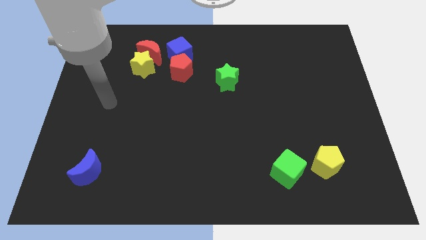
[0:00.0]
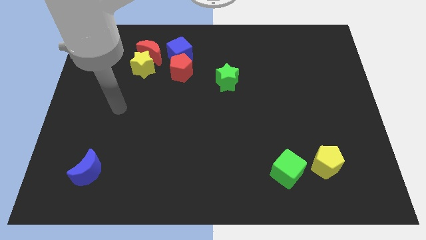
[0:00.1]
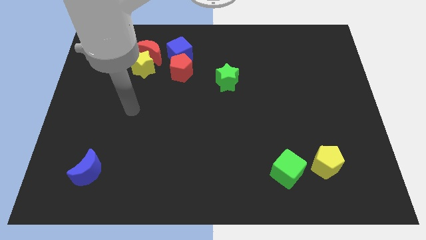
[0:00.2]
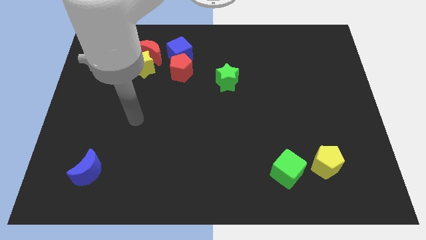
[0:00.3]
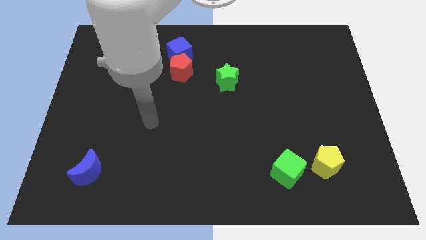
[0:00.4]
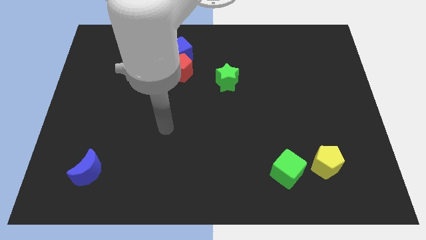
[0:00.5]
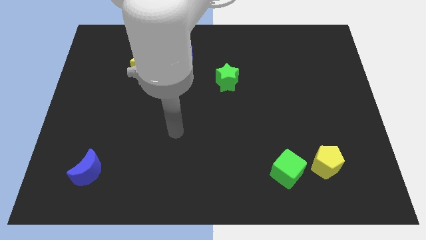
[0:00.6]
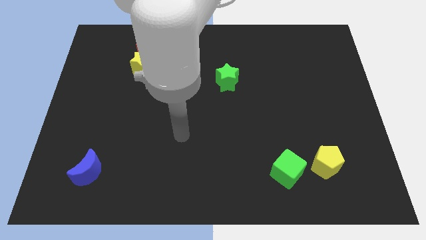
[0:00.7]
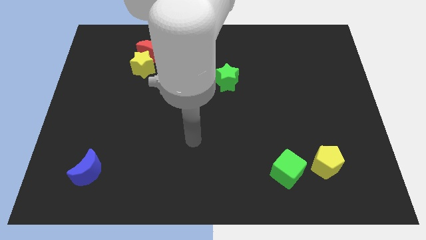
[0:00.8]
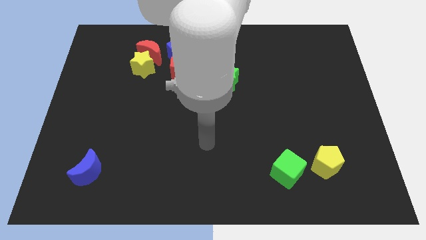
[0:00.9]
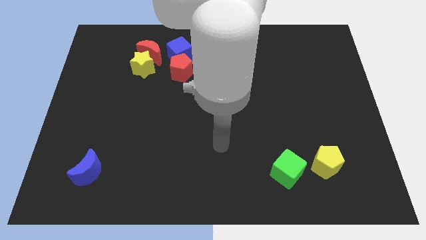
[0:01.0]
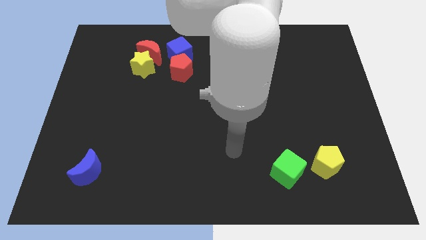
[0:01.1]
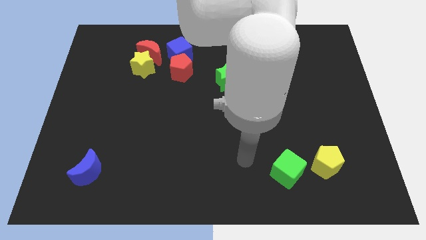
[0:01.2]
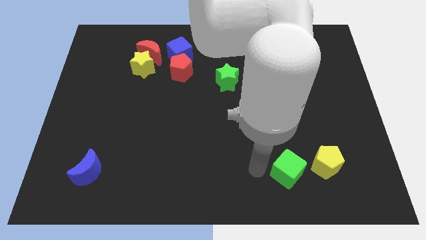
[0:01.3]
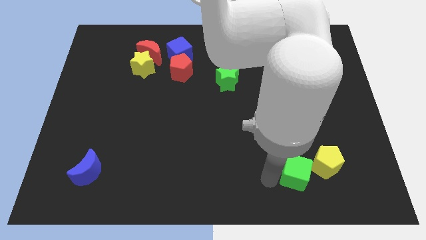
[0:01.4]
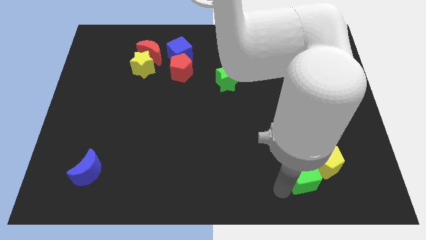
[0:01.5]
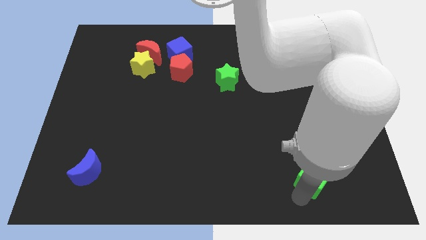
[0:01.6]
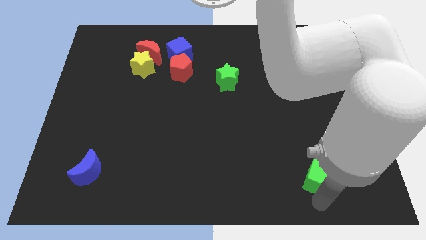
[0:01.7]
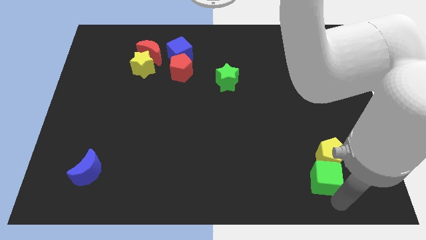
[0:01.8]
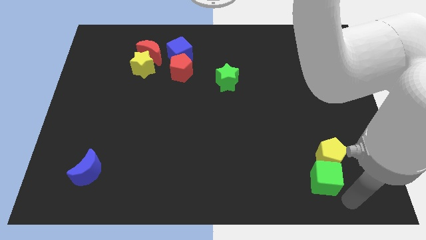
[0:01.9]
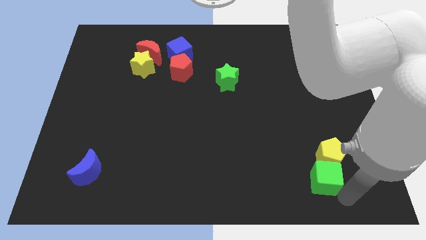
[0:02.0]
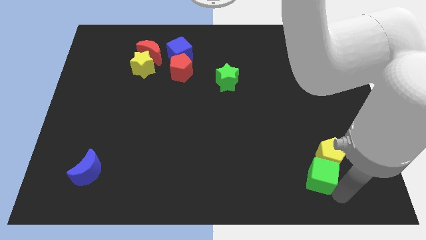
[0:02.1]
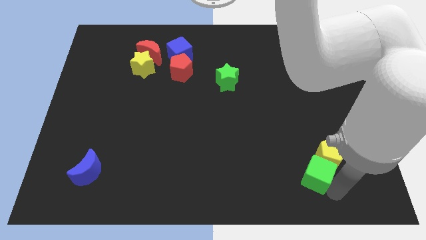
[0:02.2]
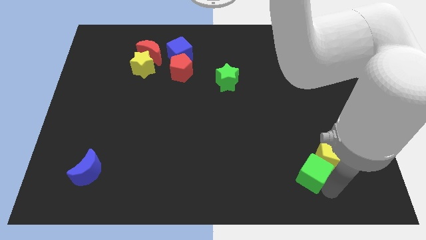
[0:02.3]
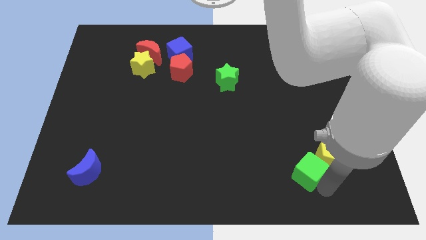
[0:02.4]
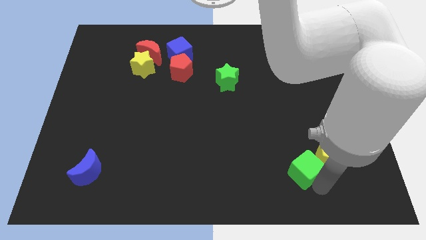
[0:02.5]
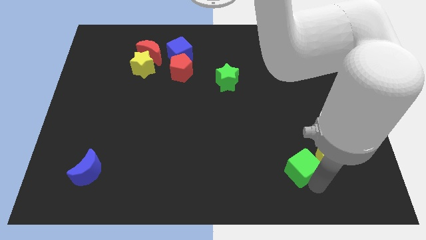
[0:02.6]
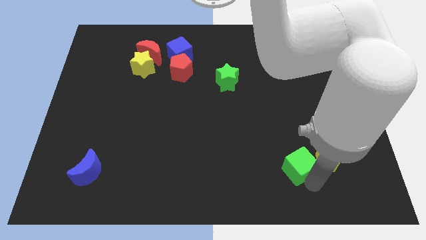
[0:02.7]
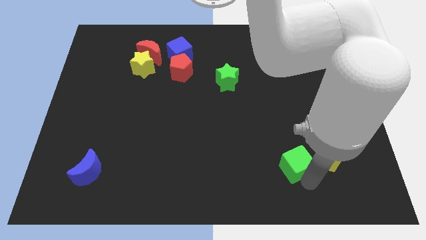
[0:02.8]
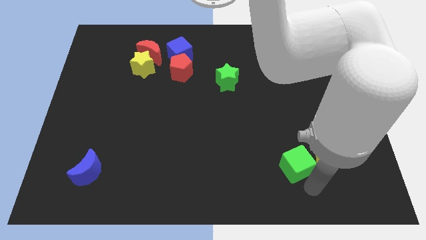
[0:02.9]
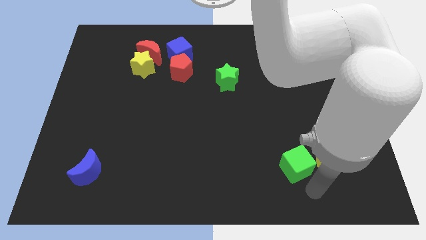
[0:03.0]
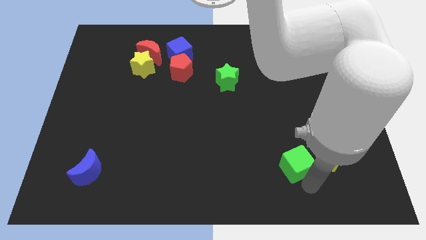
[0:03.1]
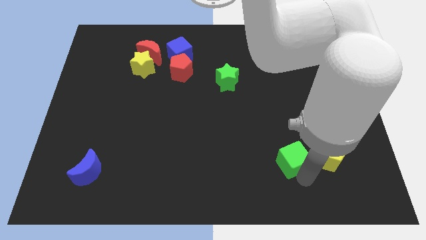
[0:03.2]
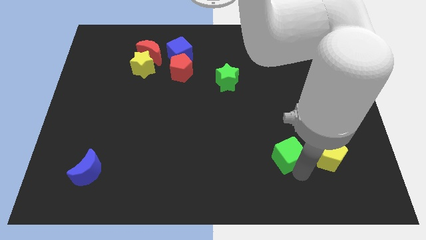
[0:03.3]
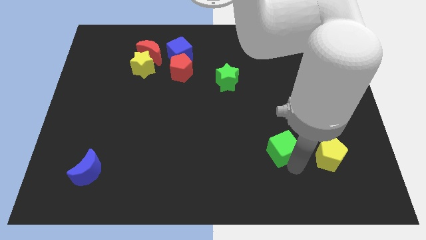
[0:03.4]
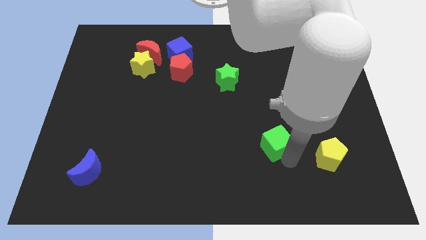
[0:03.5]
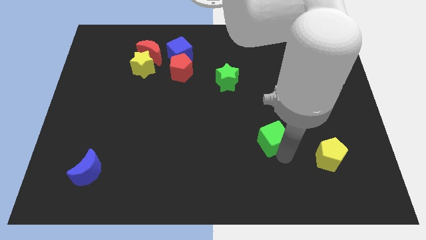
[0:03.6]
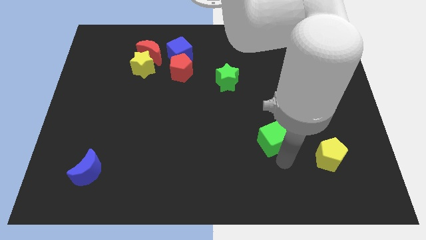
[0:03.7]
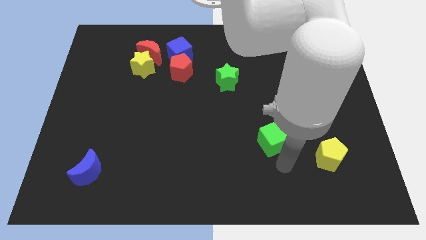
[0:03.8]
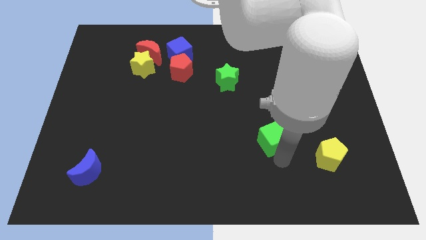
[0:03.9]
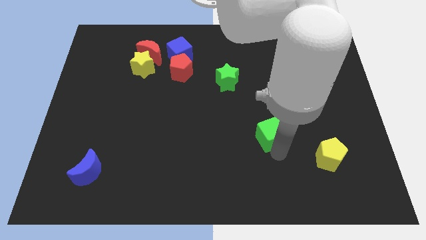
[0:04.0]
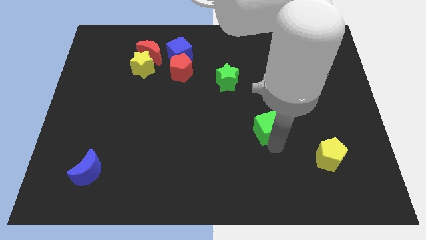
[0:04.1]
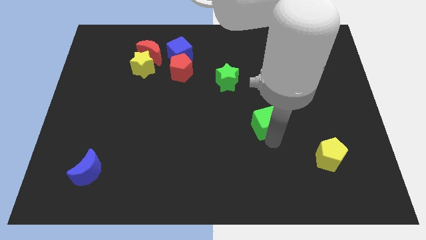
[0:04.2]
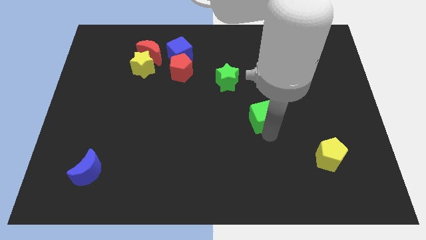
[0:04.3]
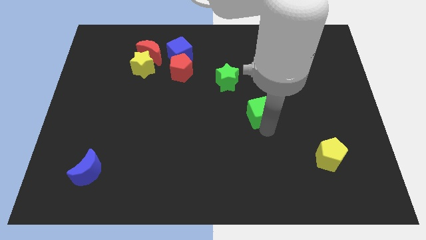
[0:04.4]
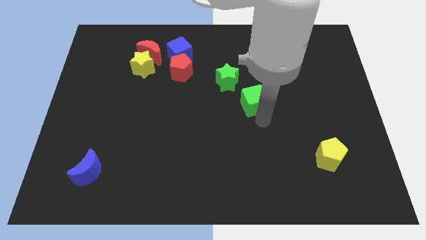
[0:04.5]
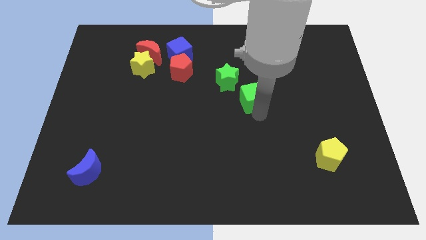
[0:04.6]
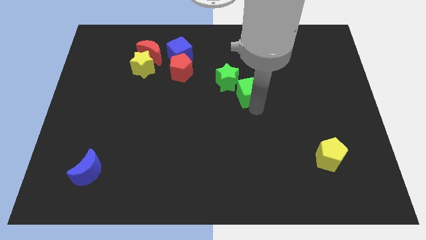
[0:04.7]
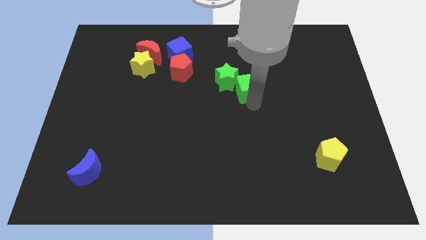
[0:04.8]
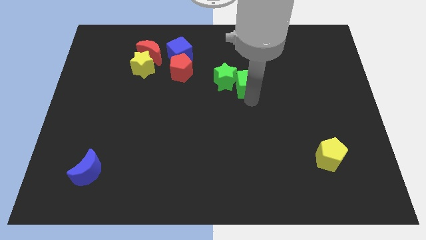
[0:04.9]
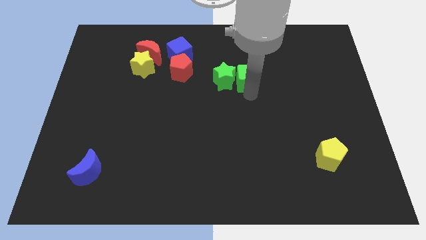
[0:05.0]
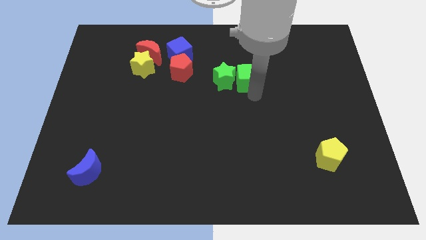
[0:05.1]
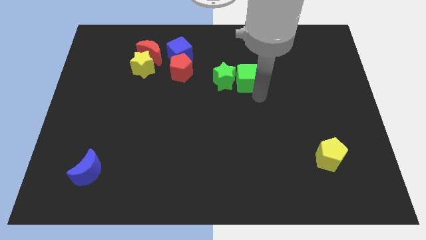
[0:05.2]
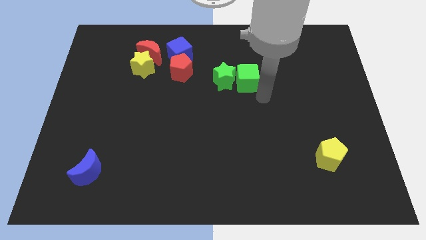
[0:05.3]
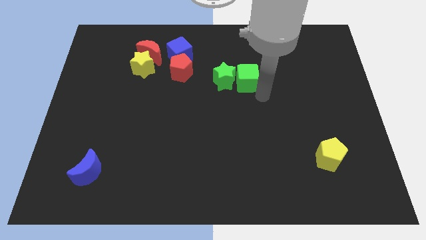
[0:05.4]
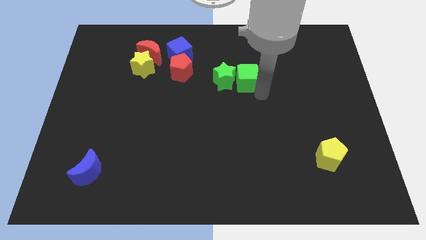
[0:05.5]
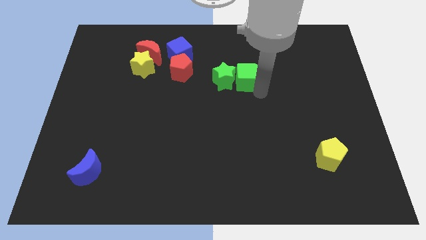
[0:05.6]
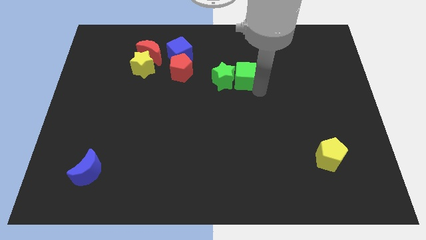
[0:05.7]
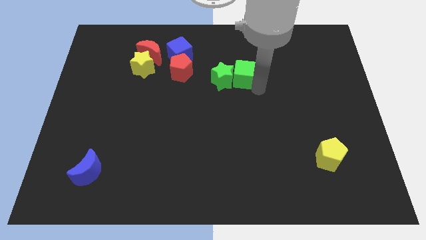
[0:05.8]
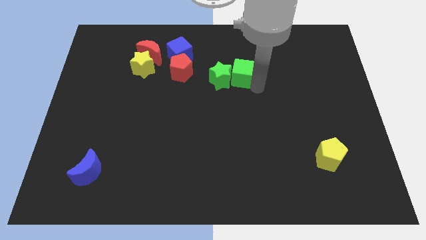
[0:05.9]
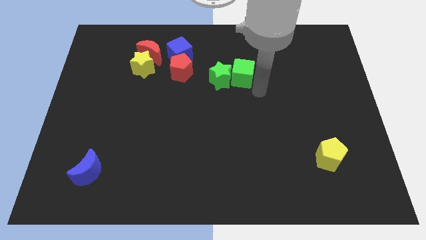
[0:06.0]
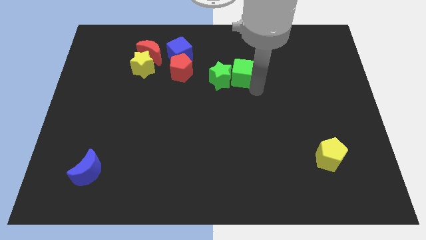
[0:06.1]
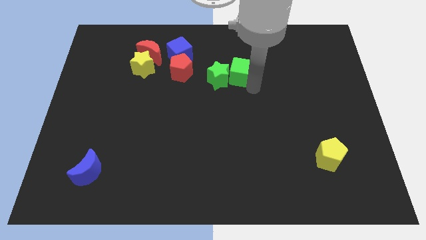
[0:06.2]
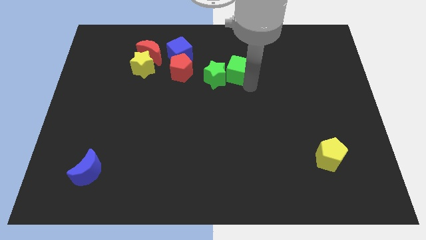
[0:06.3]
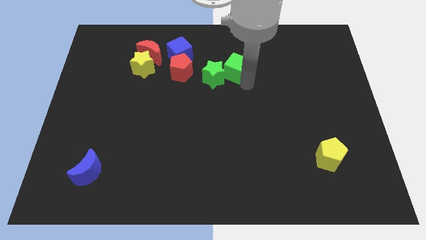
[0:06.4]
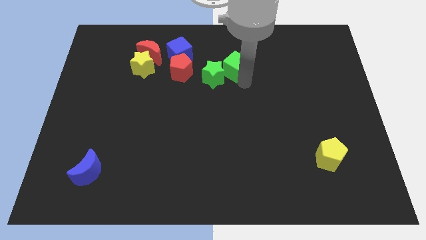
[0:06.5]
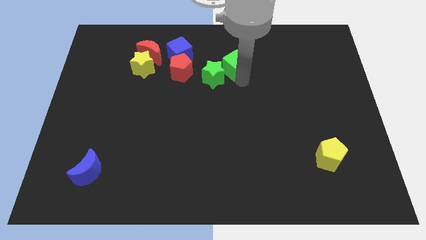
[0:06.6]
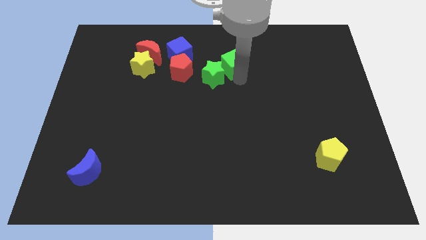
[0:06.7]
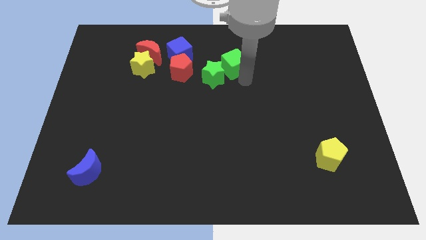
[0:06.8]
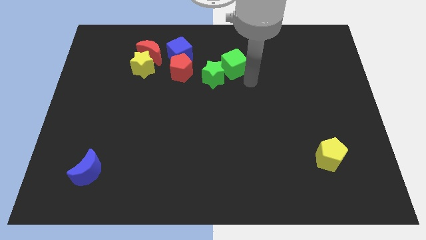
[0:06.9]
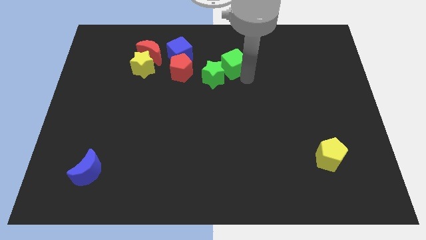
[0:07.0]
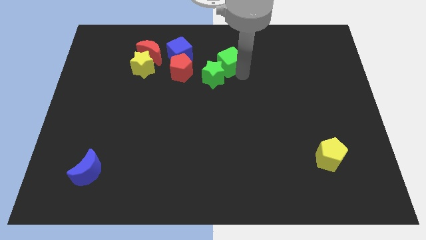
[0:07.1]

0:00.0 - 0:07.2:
put the green cube to the right side of the blue cube

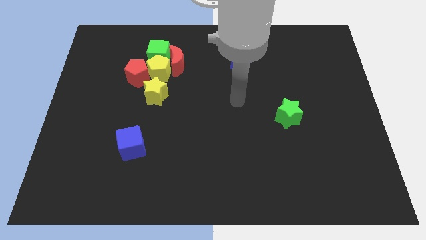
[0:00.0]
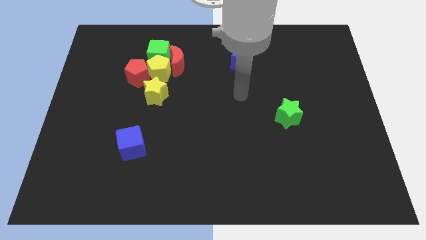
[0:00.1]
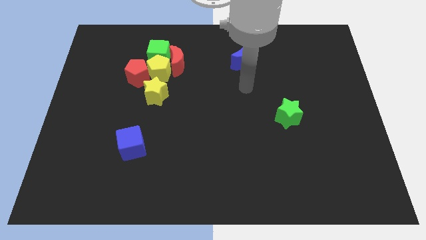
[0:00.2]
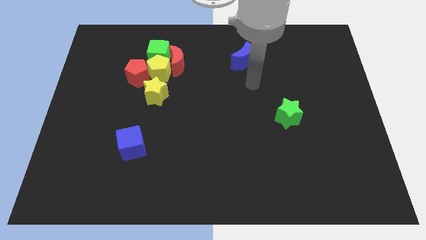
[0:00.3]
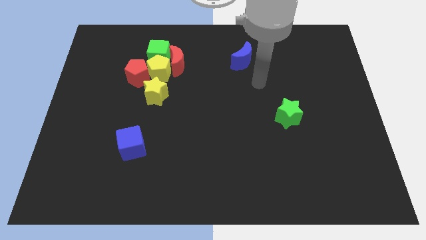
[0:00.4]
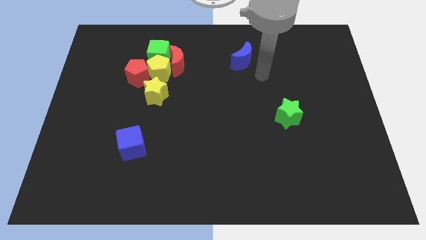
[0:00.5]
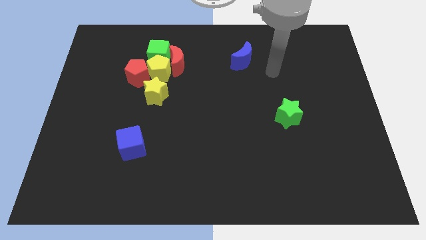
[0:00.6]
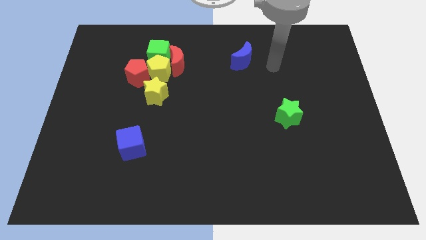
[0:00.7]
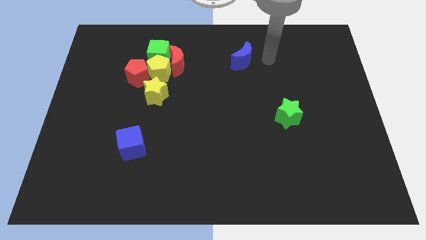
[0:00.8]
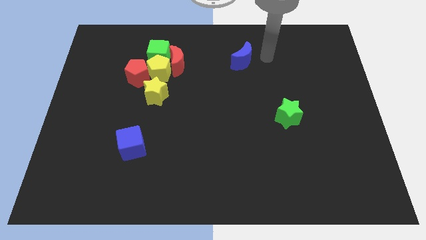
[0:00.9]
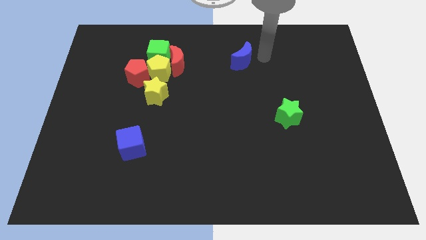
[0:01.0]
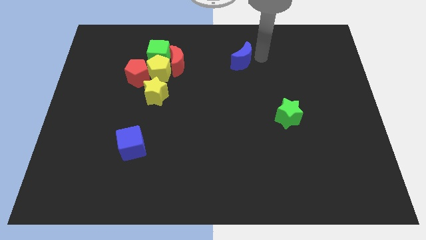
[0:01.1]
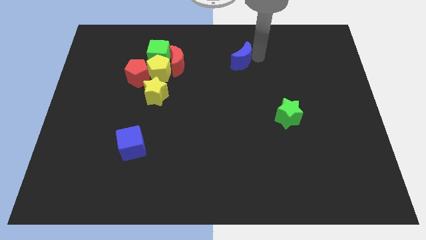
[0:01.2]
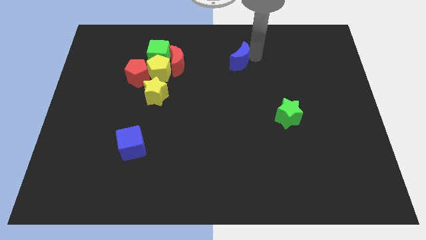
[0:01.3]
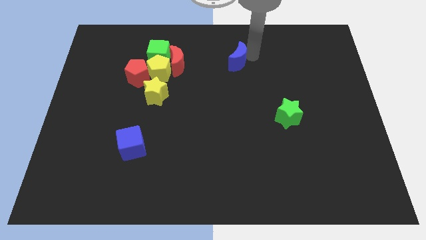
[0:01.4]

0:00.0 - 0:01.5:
push the blue moon to the right of the red moon
